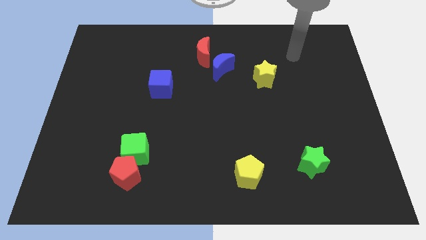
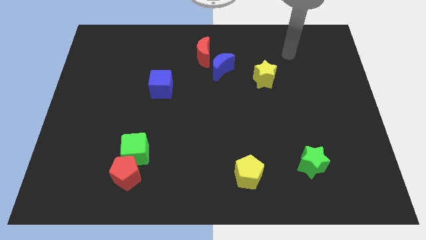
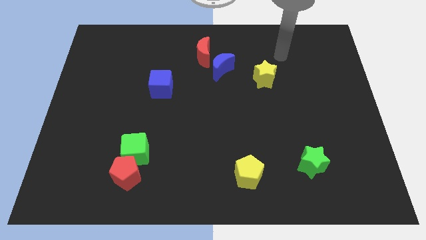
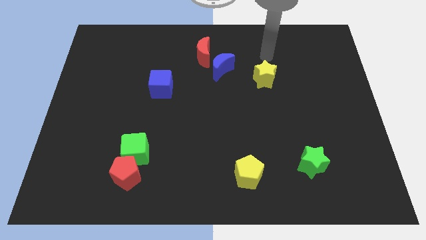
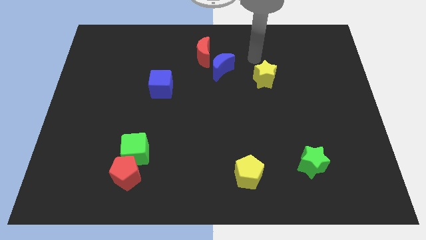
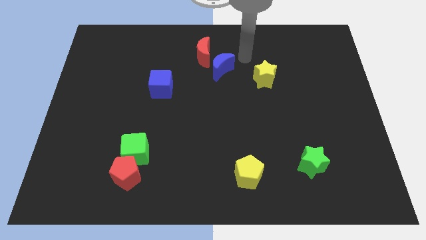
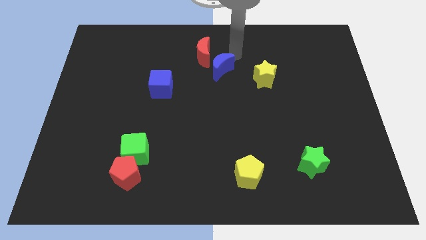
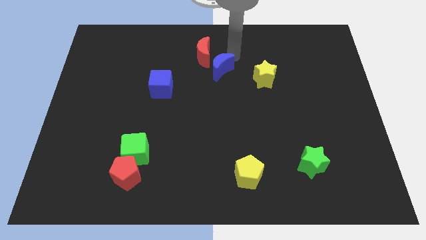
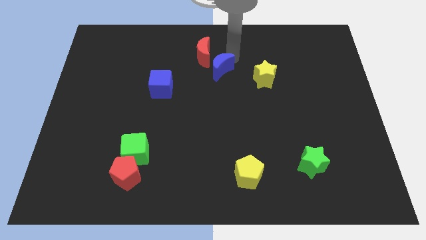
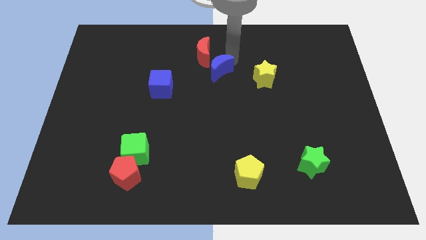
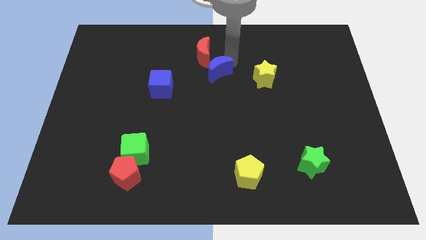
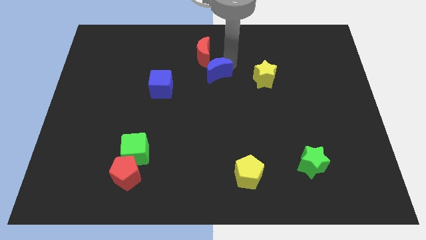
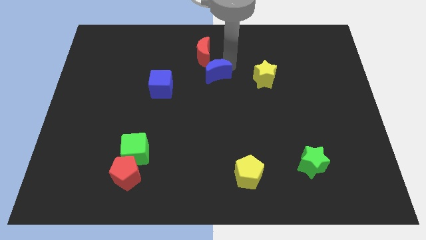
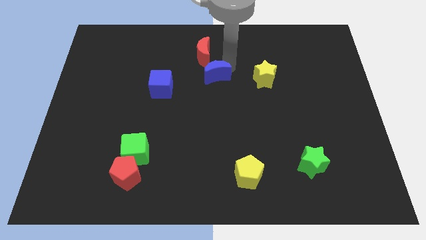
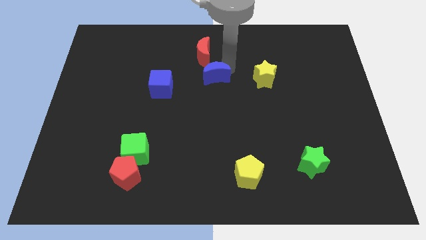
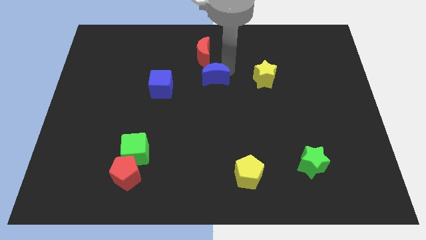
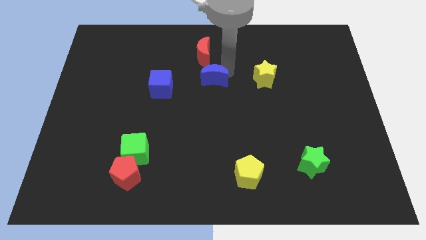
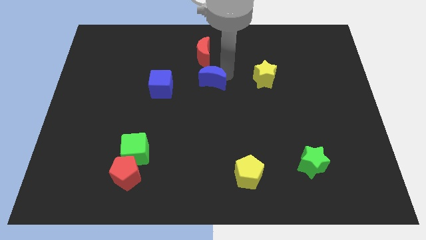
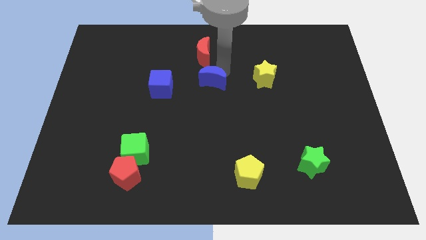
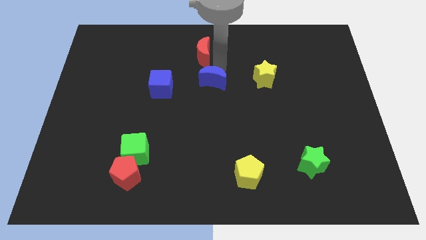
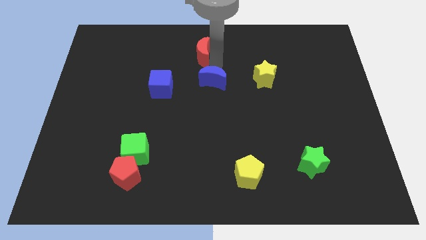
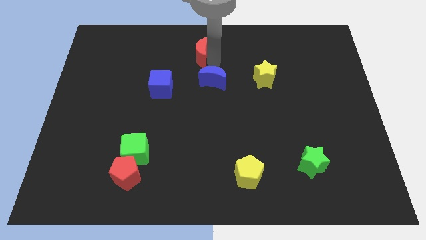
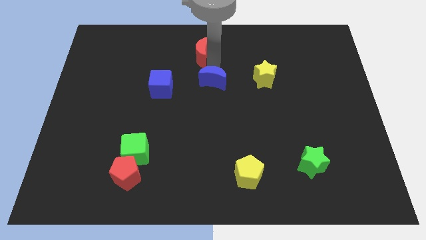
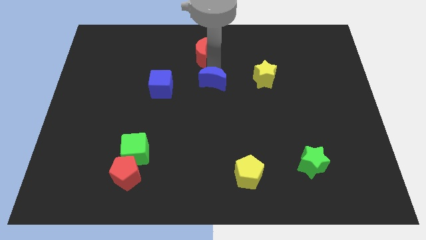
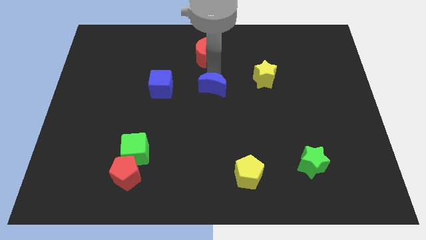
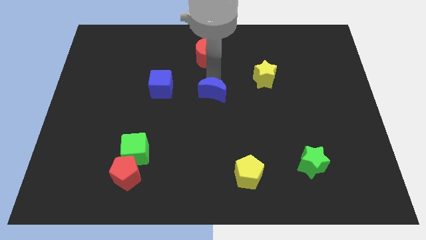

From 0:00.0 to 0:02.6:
slightly move the blue moon downwards

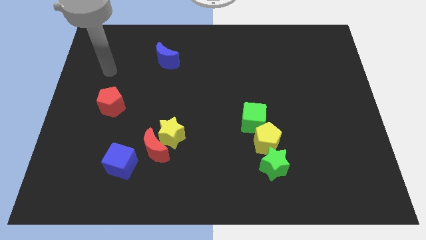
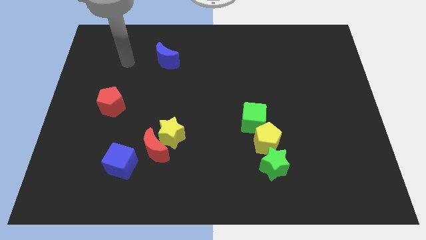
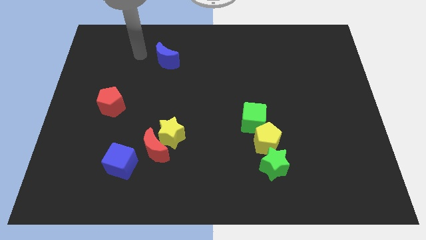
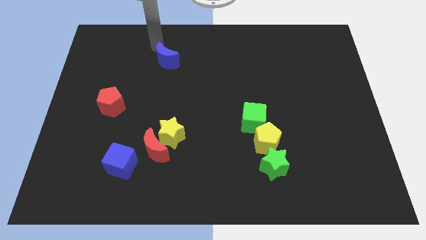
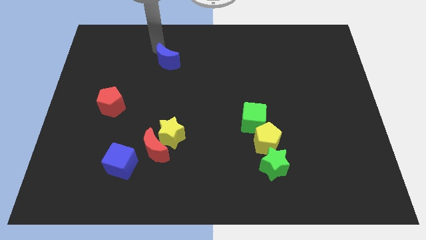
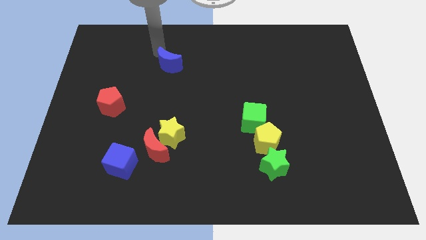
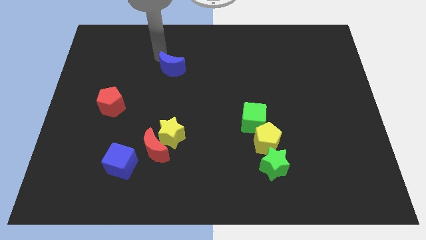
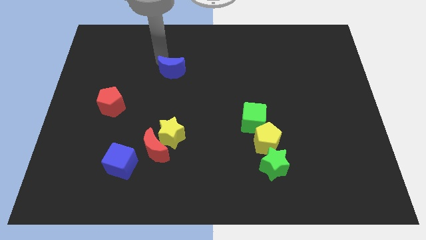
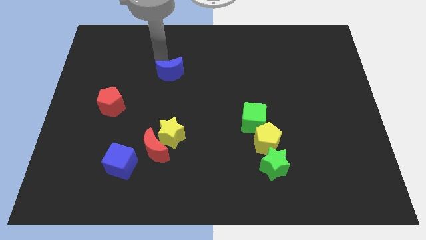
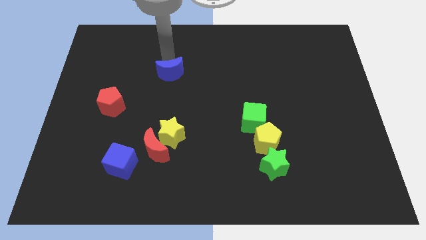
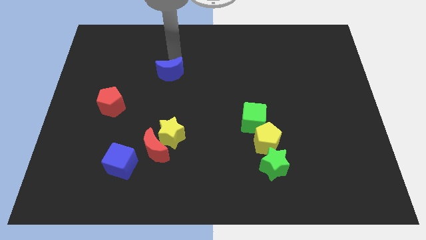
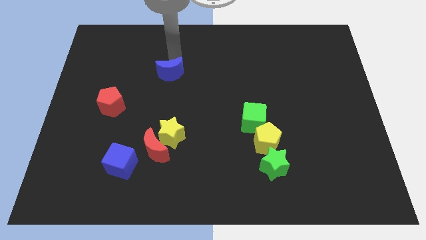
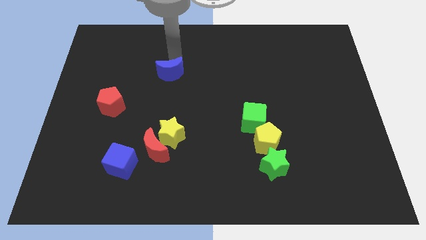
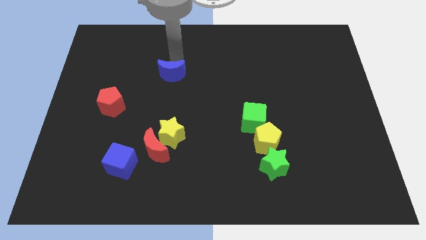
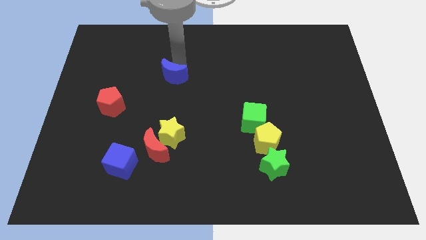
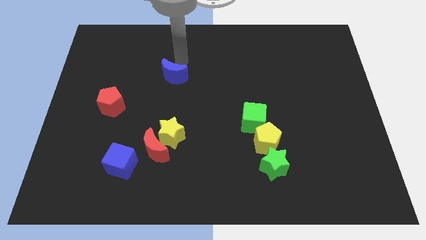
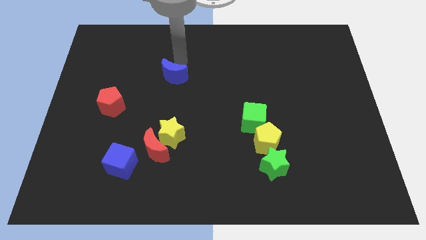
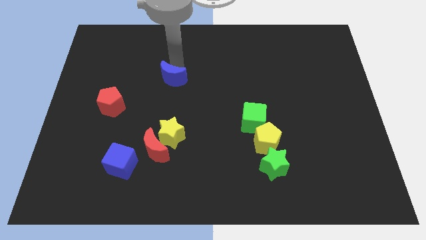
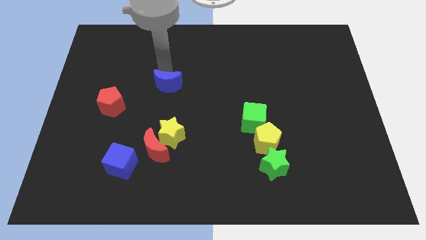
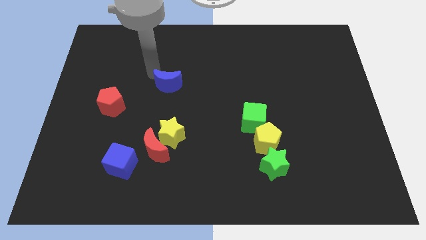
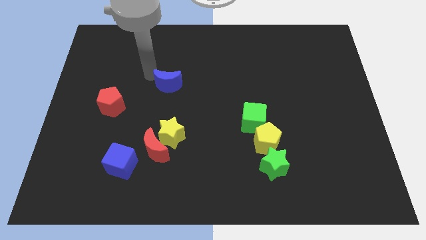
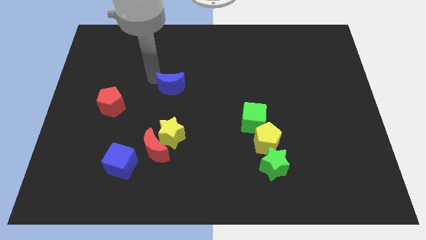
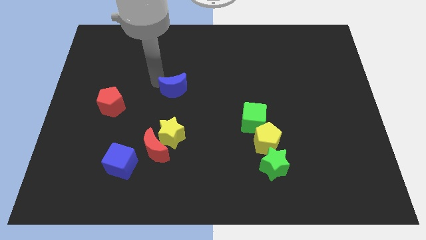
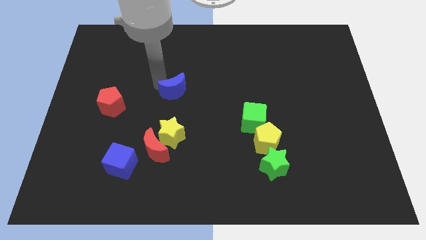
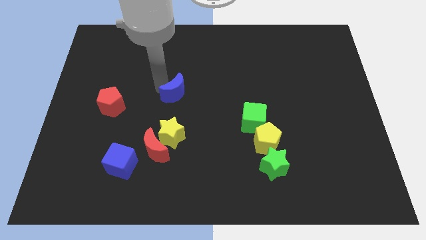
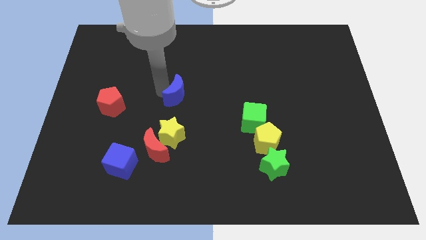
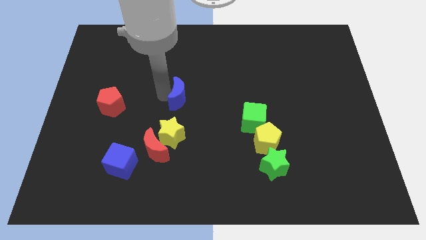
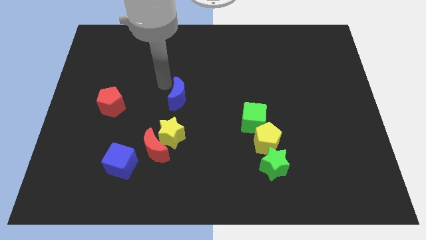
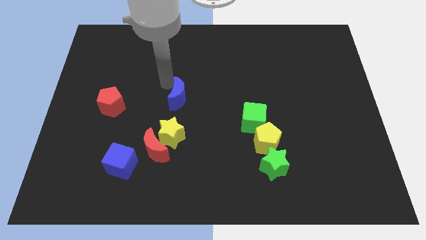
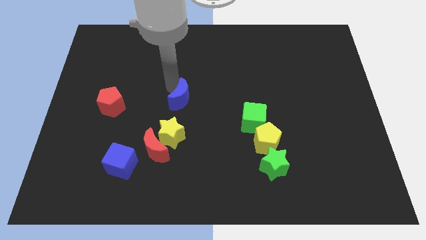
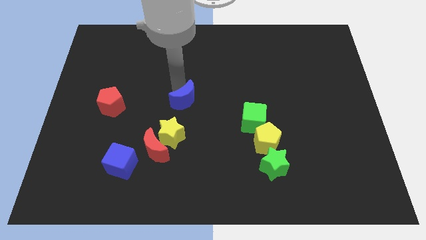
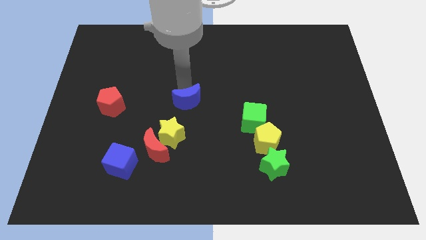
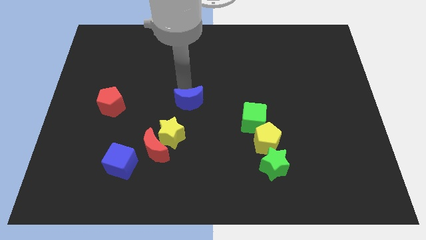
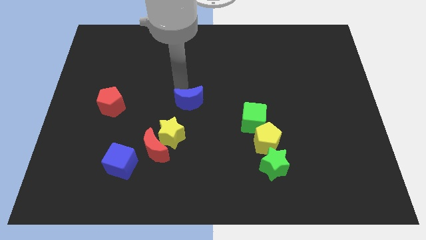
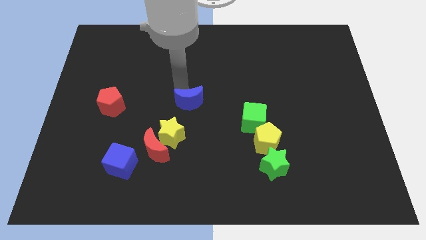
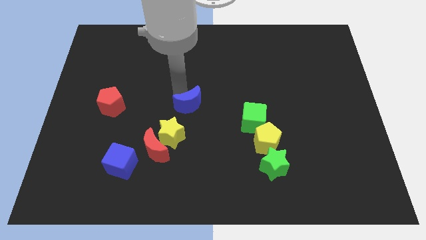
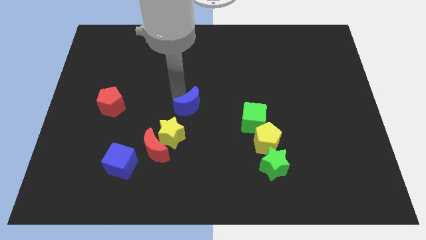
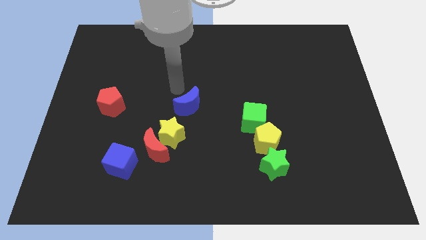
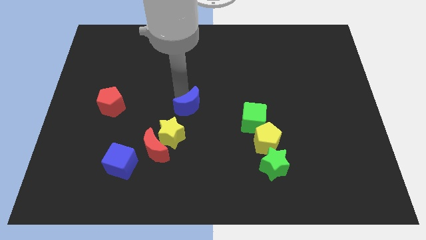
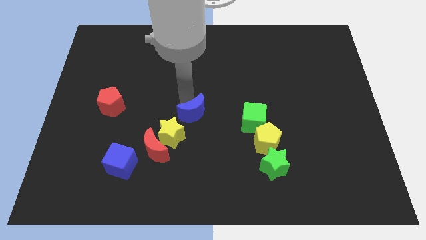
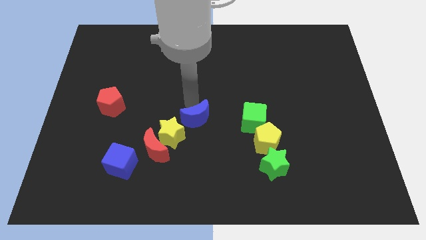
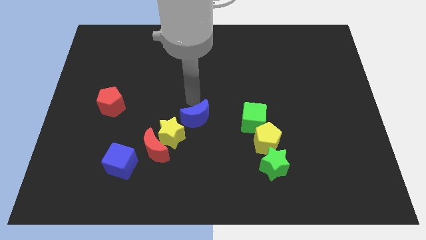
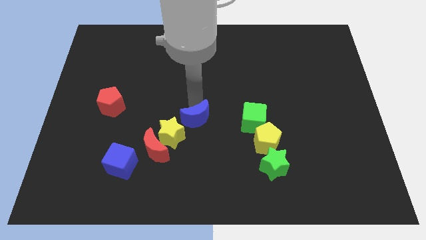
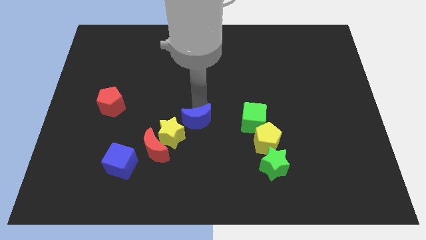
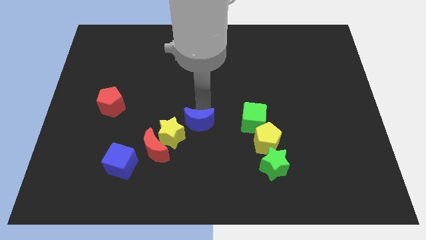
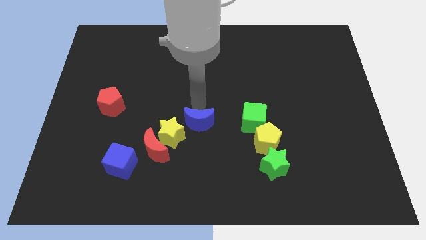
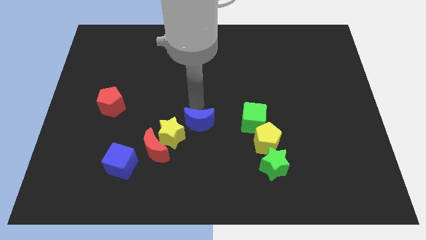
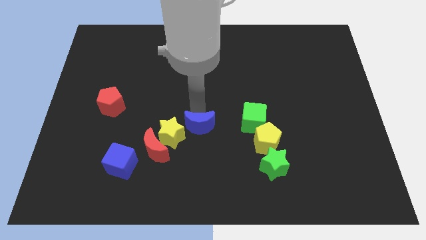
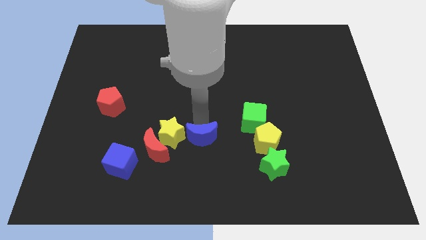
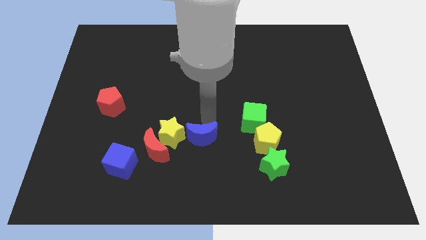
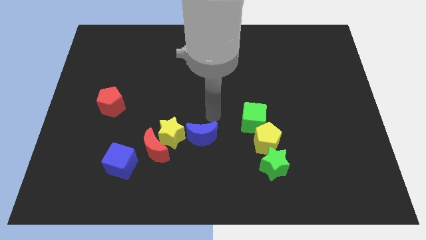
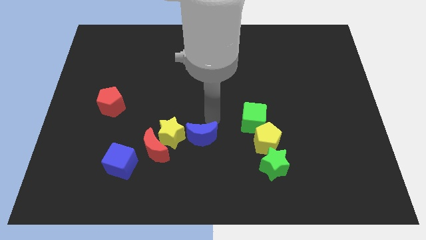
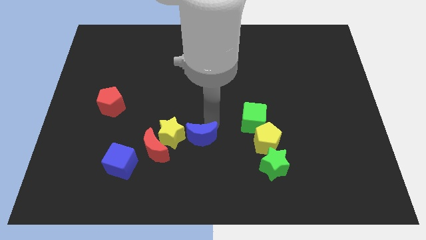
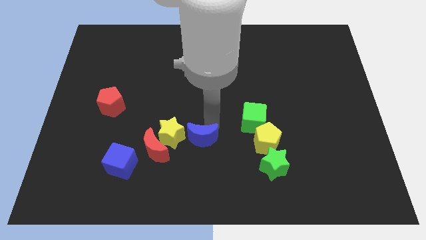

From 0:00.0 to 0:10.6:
slide the blue moon downwards
